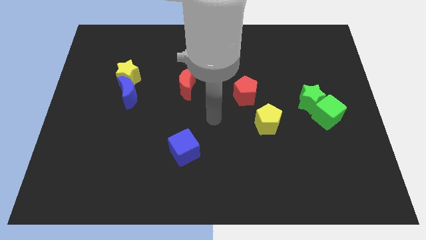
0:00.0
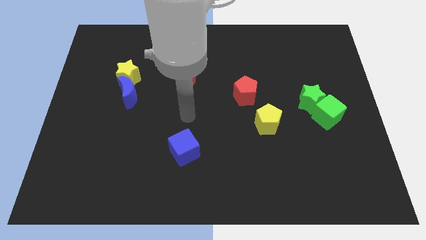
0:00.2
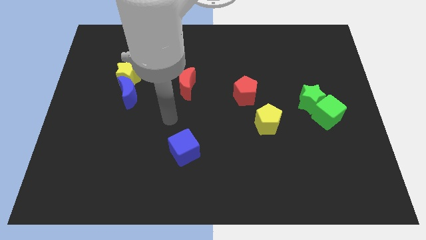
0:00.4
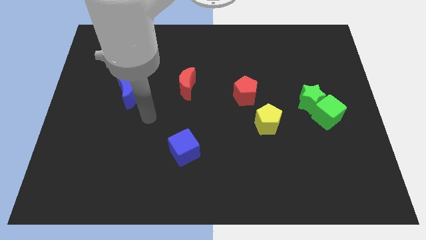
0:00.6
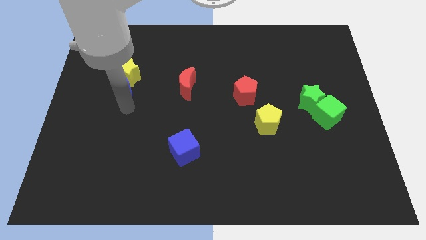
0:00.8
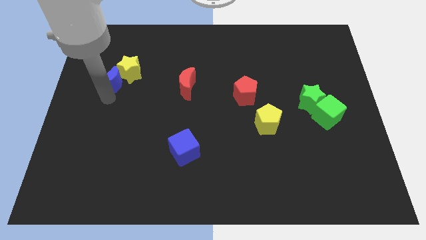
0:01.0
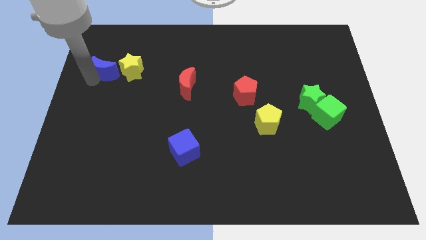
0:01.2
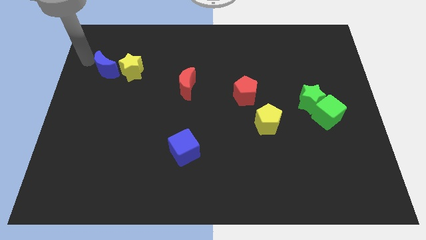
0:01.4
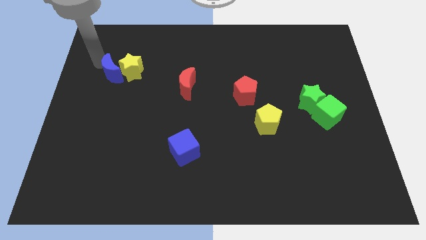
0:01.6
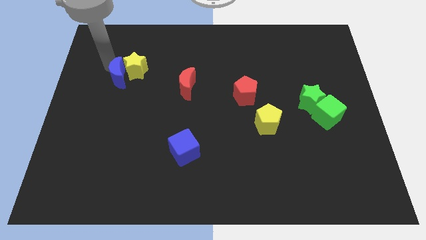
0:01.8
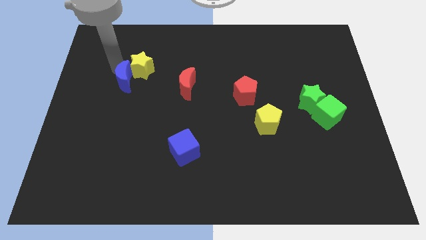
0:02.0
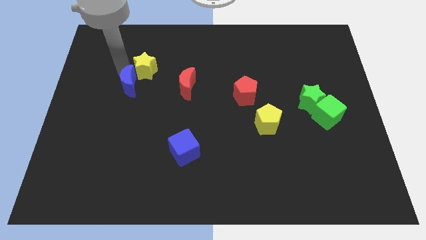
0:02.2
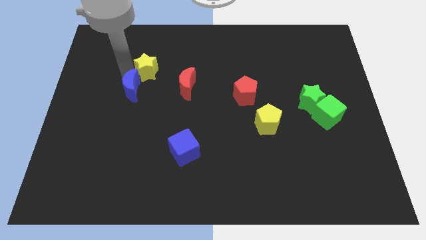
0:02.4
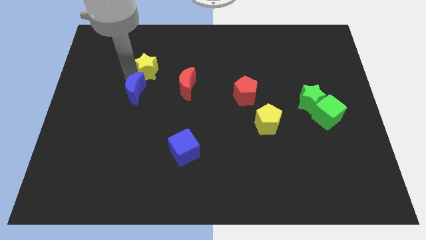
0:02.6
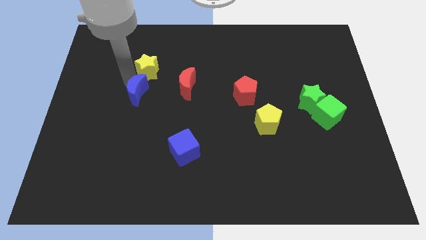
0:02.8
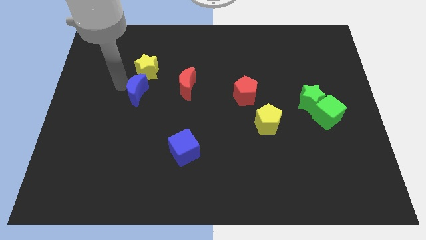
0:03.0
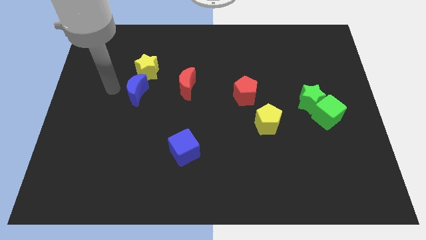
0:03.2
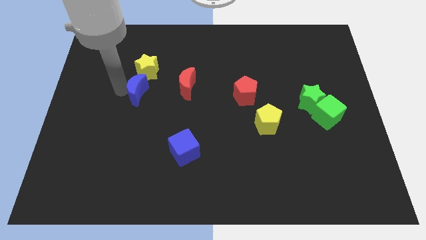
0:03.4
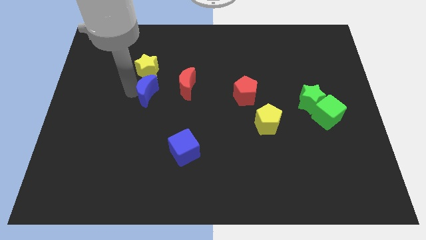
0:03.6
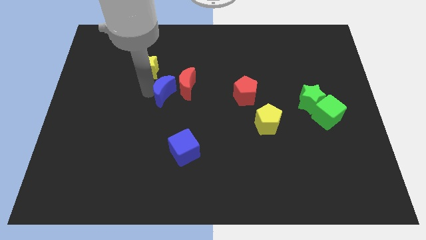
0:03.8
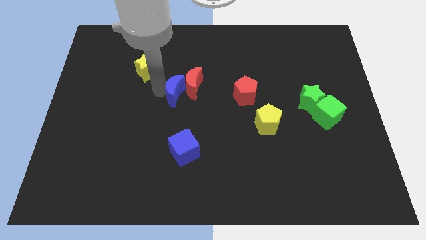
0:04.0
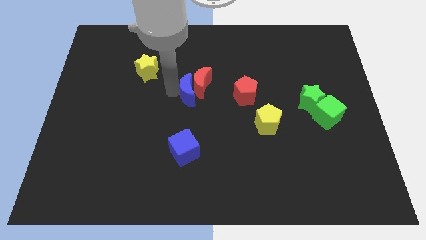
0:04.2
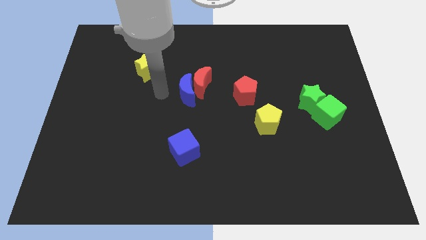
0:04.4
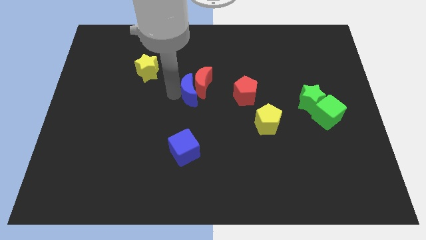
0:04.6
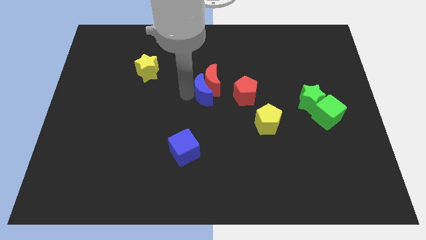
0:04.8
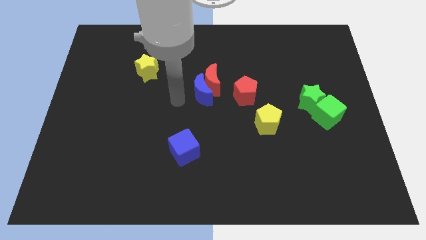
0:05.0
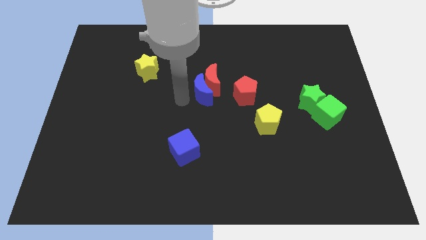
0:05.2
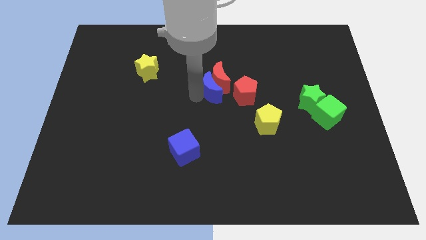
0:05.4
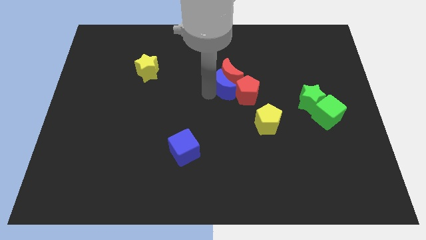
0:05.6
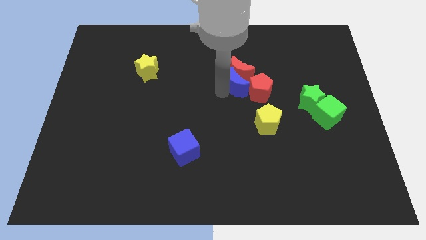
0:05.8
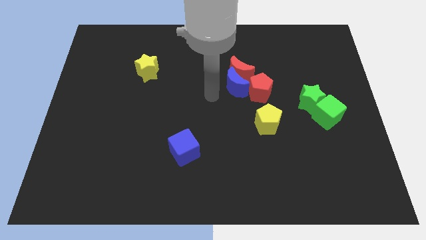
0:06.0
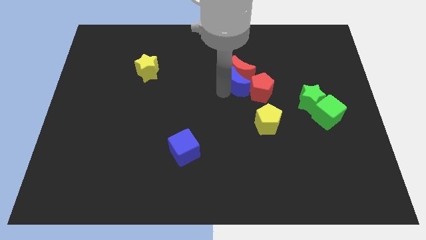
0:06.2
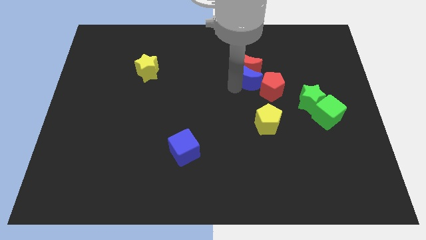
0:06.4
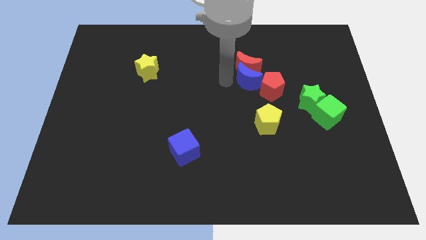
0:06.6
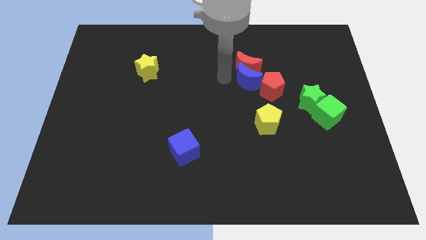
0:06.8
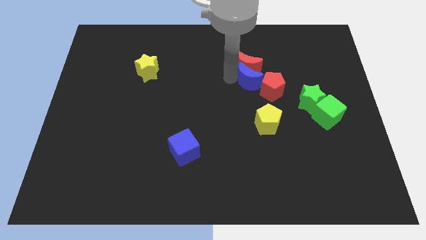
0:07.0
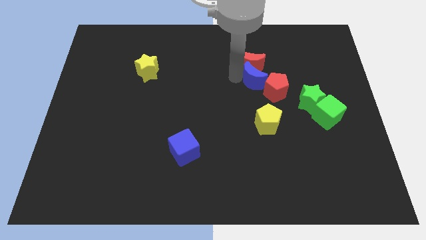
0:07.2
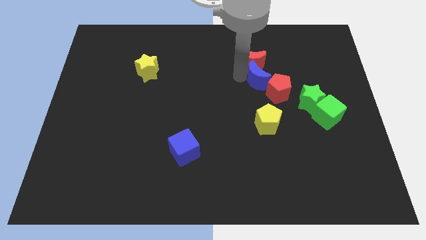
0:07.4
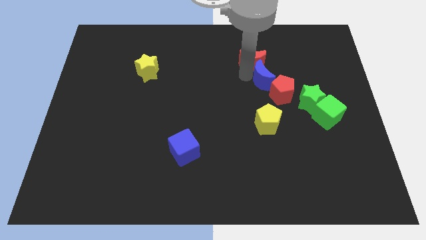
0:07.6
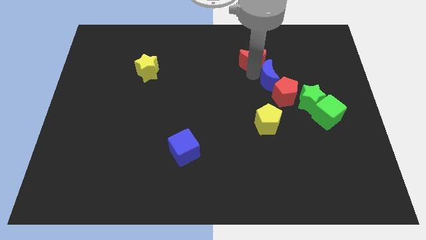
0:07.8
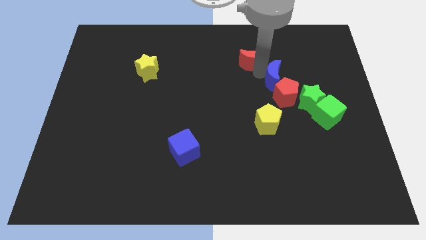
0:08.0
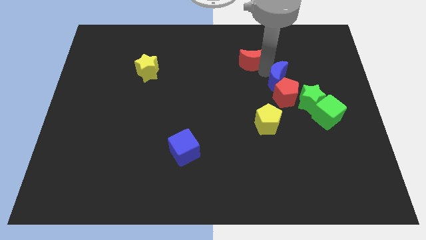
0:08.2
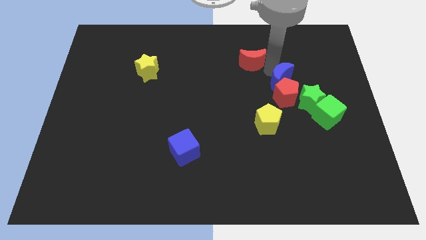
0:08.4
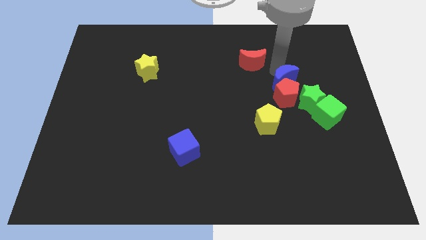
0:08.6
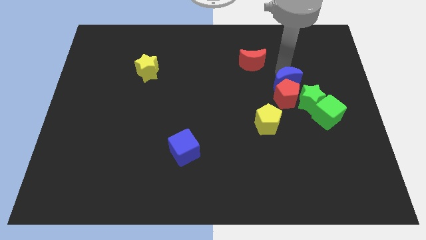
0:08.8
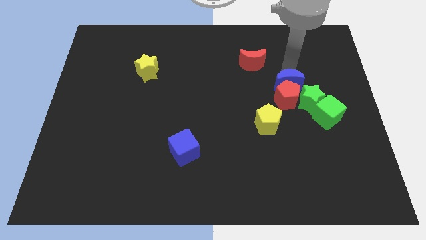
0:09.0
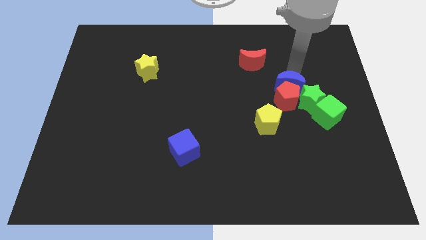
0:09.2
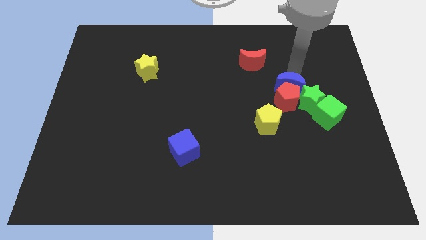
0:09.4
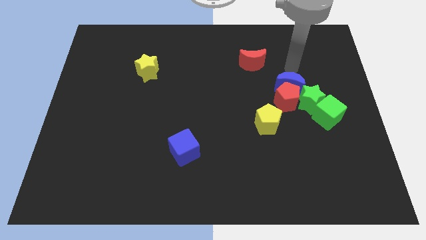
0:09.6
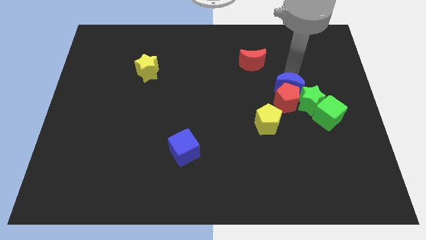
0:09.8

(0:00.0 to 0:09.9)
slide the blue moon to the top right side of the yellow pentagon

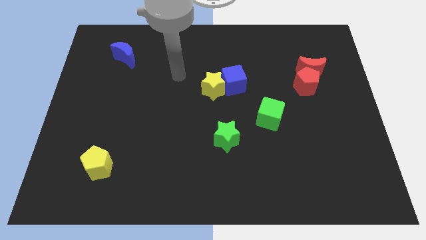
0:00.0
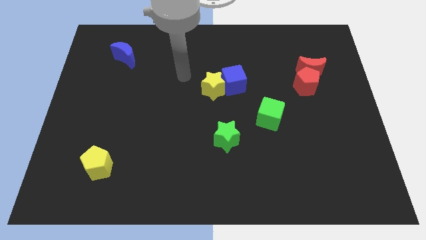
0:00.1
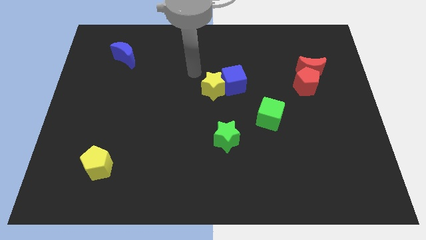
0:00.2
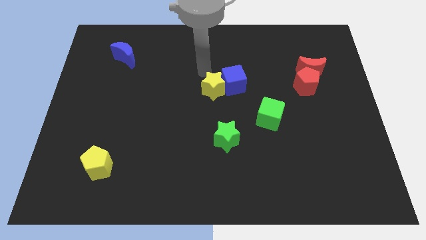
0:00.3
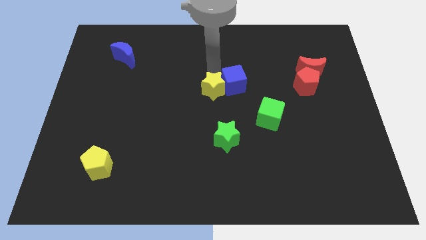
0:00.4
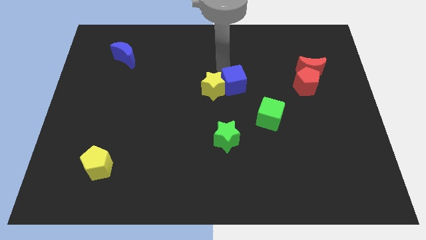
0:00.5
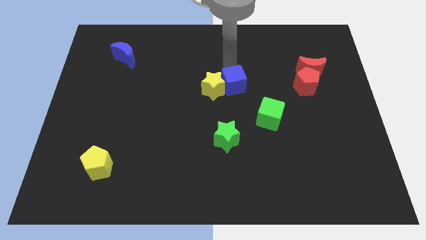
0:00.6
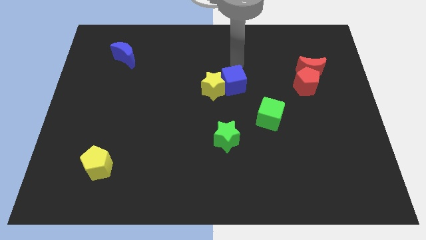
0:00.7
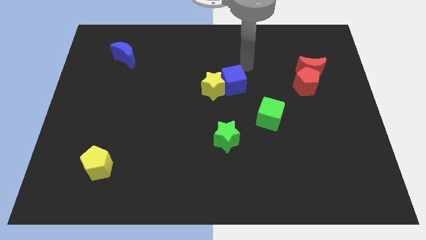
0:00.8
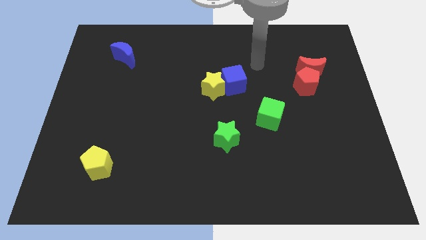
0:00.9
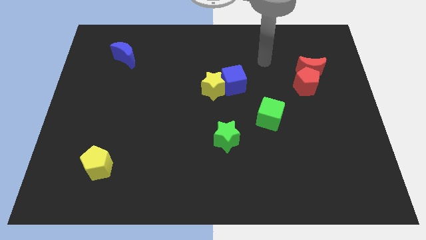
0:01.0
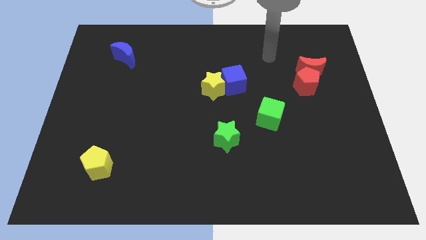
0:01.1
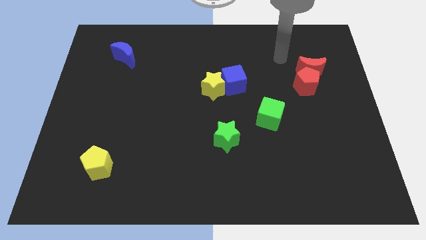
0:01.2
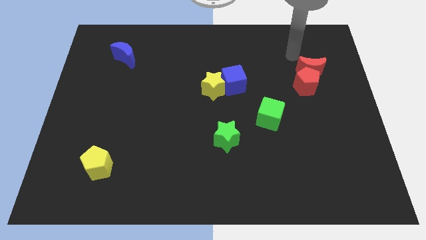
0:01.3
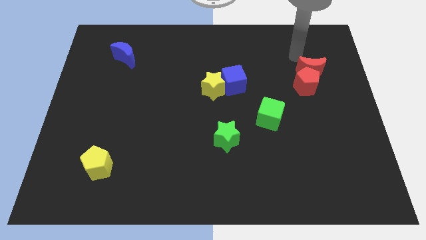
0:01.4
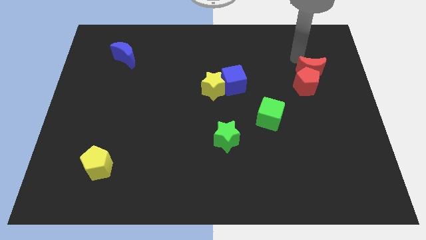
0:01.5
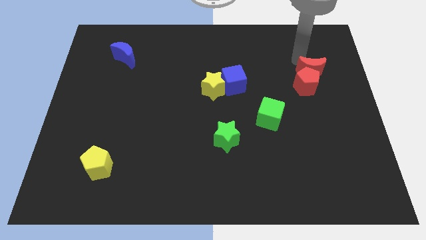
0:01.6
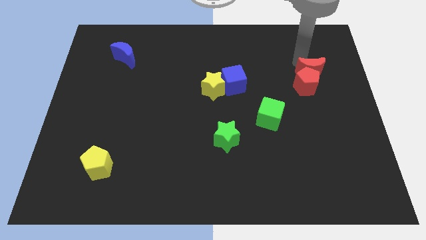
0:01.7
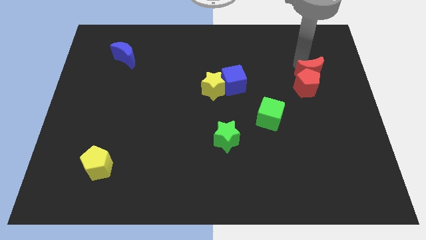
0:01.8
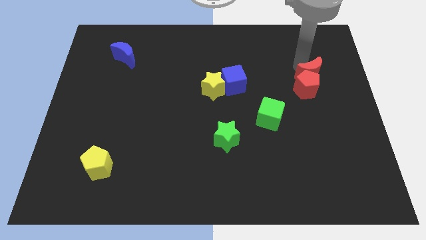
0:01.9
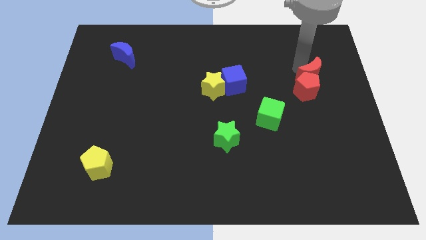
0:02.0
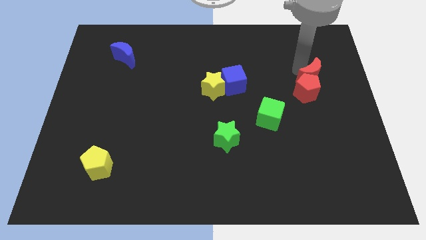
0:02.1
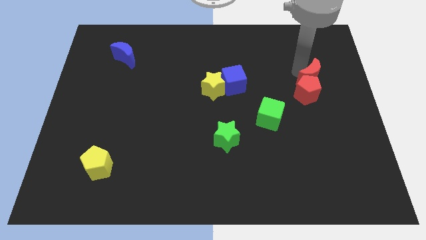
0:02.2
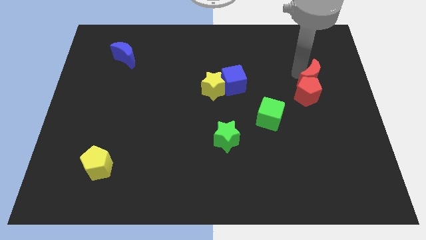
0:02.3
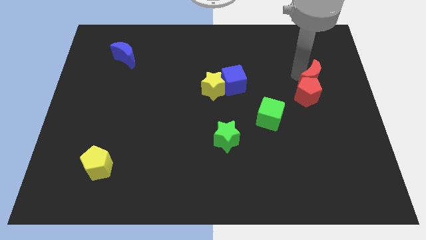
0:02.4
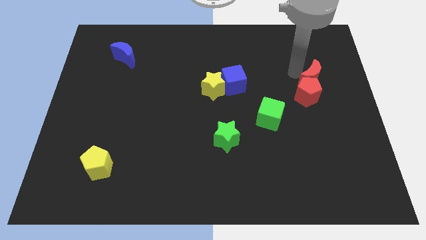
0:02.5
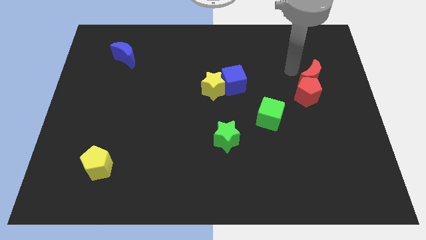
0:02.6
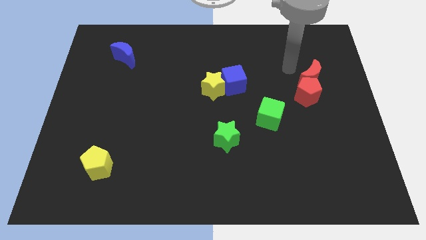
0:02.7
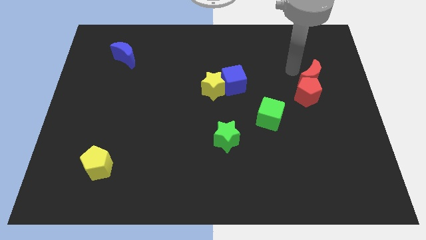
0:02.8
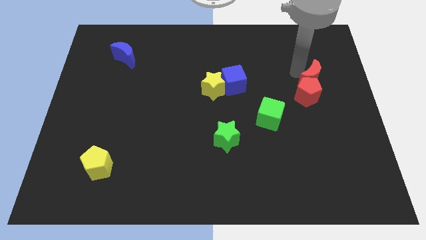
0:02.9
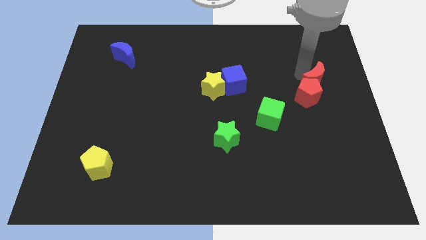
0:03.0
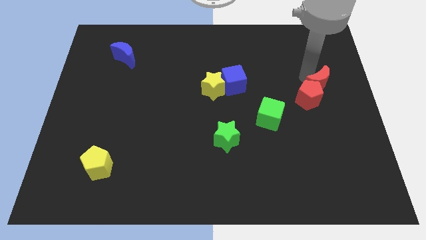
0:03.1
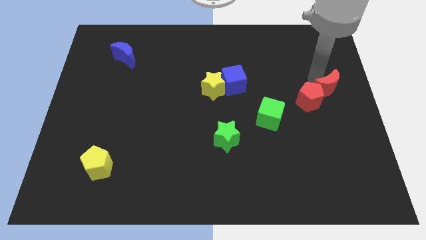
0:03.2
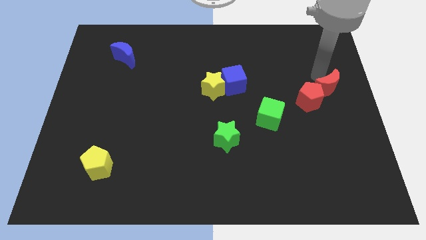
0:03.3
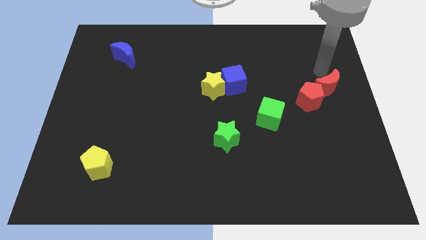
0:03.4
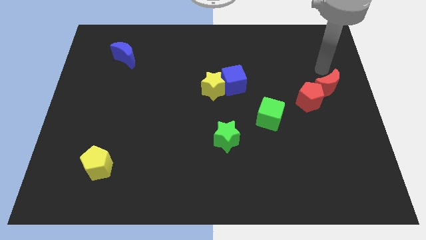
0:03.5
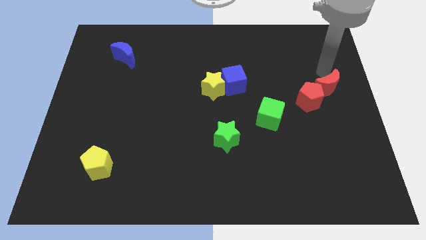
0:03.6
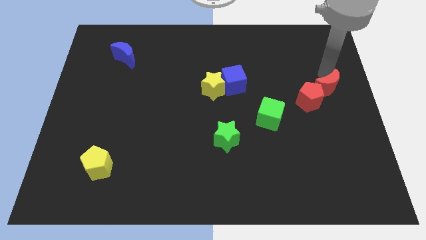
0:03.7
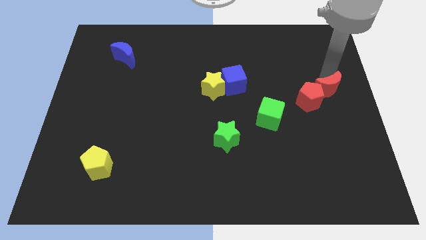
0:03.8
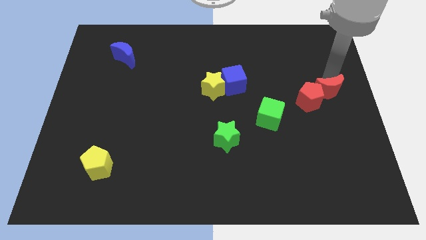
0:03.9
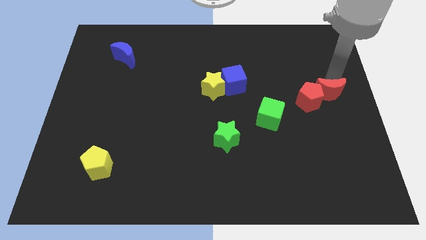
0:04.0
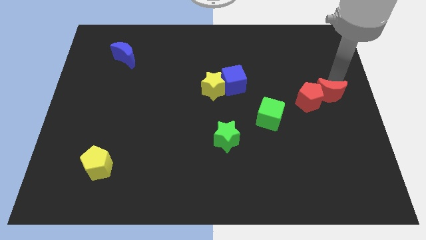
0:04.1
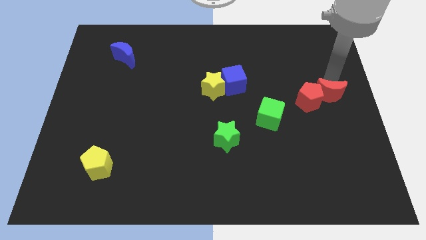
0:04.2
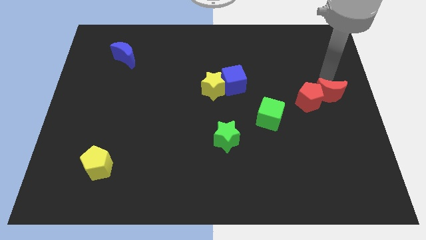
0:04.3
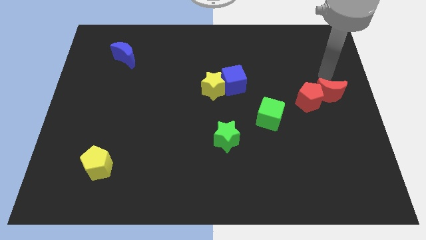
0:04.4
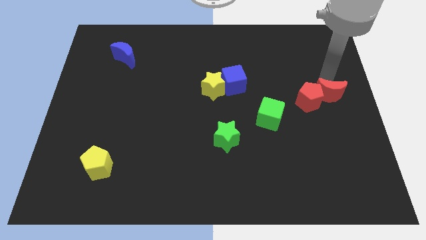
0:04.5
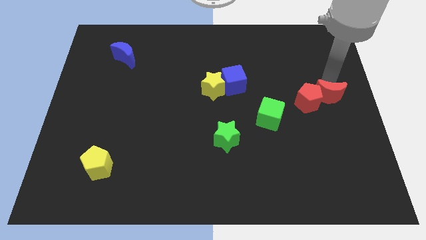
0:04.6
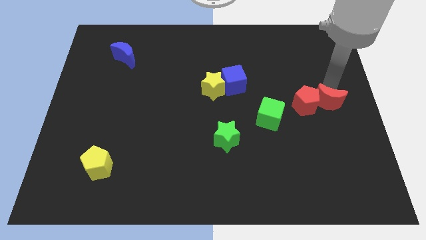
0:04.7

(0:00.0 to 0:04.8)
put the red moon to the bottom right side of the red pentagon
